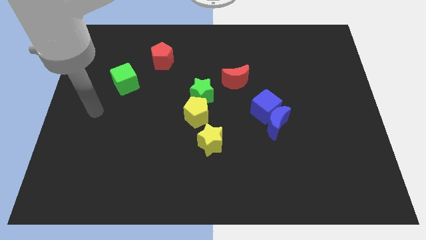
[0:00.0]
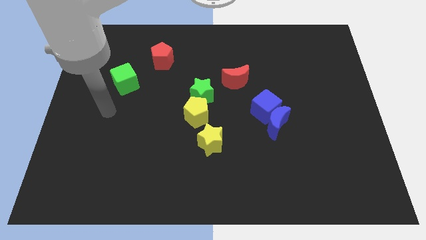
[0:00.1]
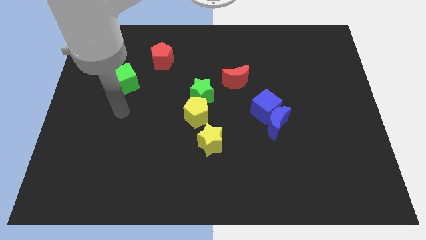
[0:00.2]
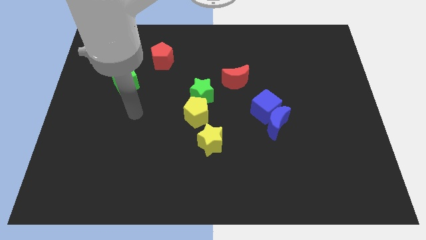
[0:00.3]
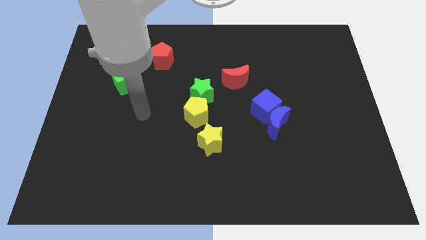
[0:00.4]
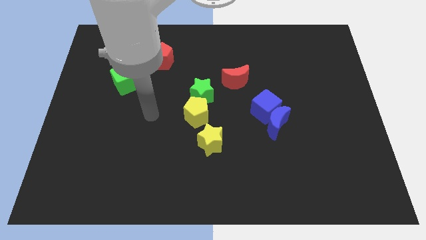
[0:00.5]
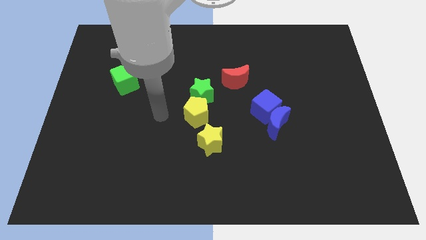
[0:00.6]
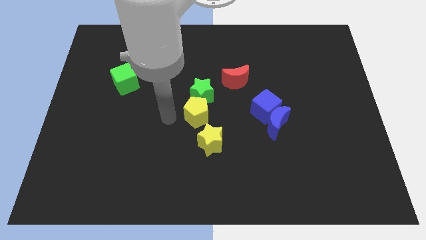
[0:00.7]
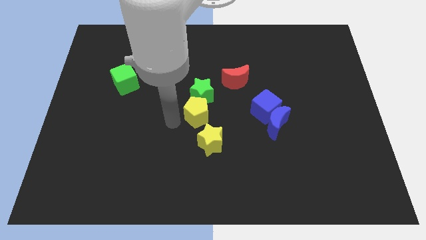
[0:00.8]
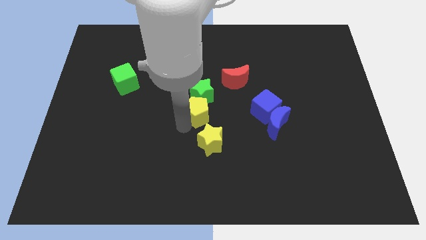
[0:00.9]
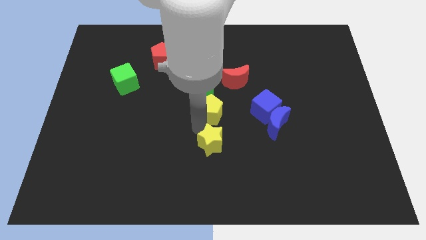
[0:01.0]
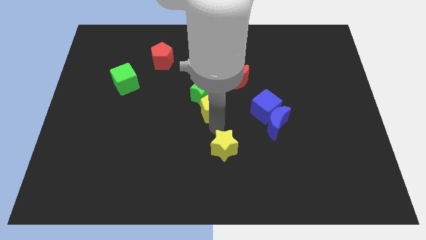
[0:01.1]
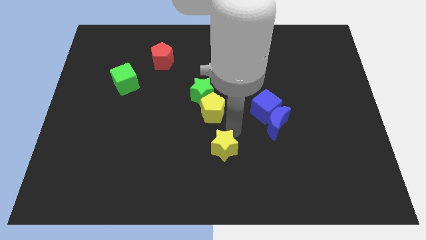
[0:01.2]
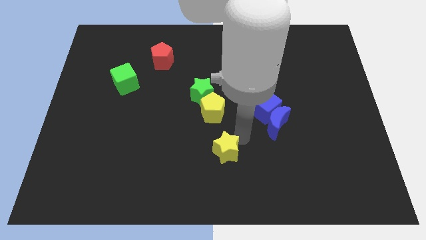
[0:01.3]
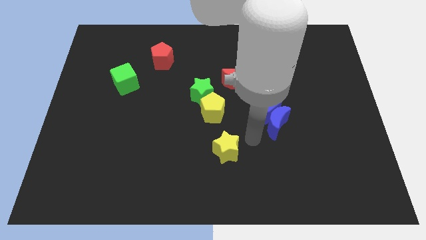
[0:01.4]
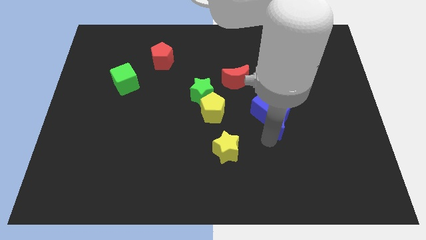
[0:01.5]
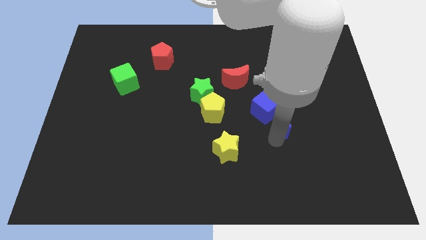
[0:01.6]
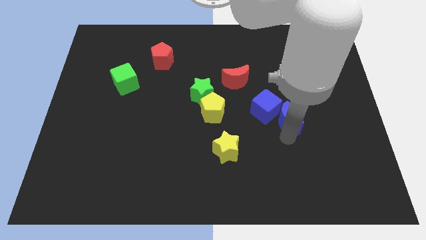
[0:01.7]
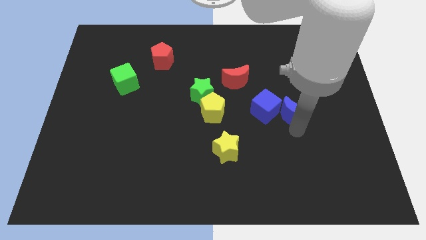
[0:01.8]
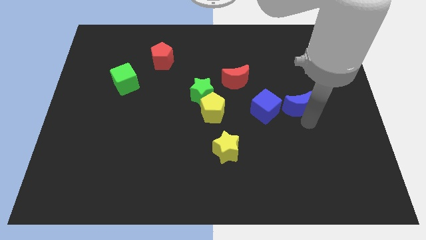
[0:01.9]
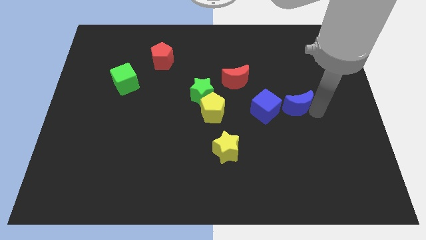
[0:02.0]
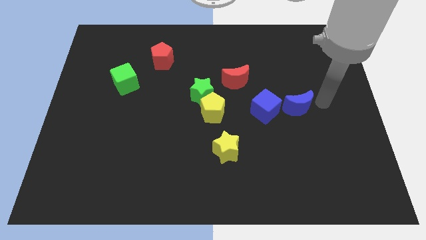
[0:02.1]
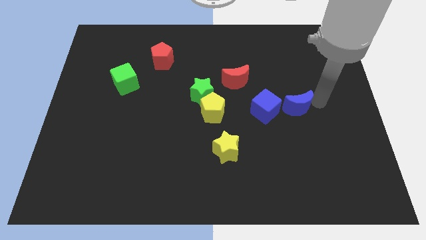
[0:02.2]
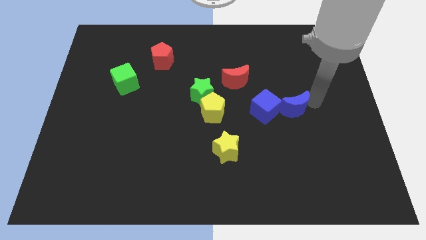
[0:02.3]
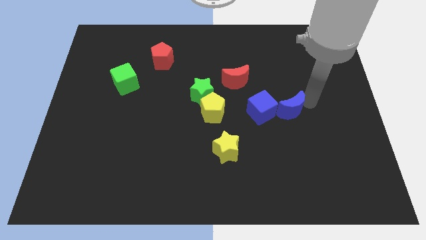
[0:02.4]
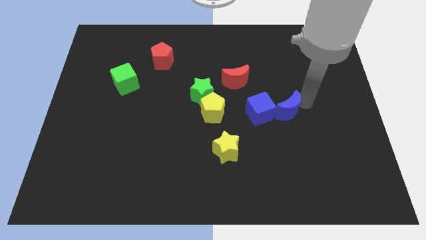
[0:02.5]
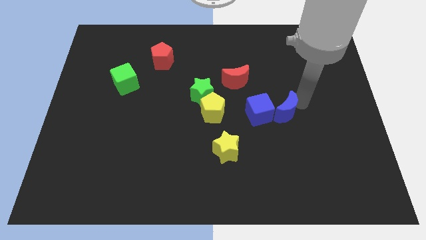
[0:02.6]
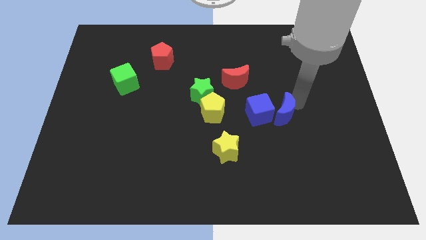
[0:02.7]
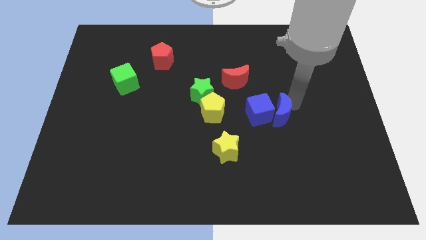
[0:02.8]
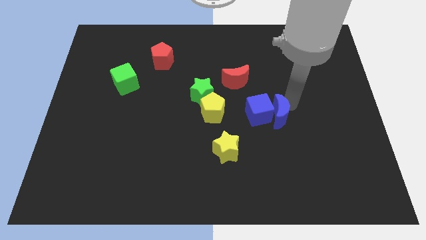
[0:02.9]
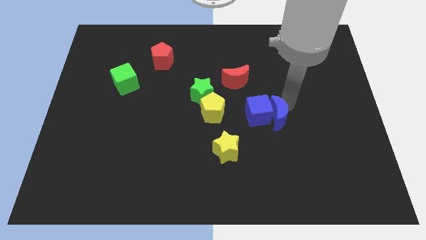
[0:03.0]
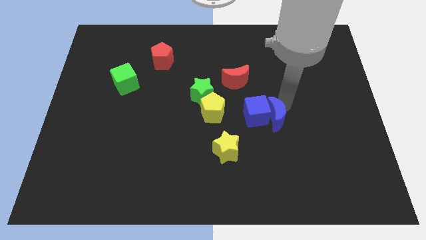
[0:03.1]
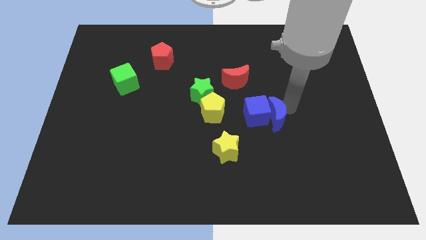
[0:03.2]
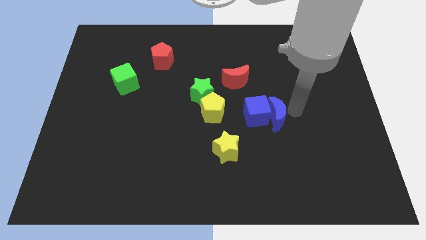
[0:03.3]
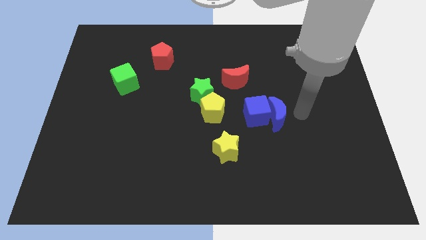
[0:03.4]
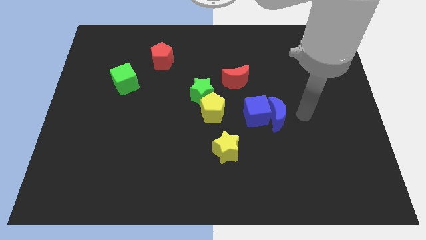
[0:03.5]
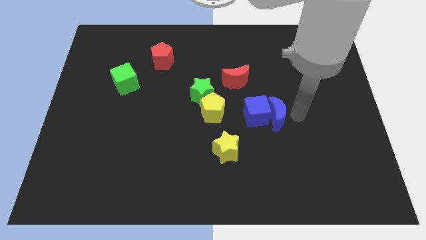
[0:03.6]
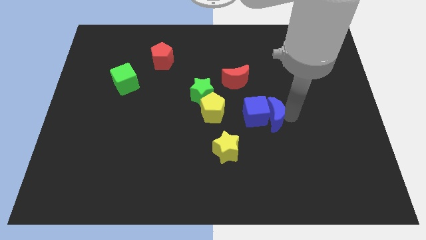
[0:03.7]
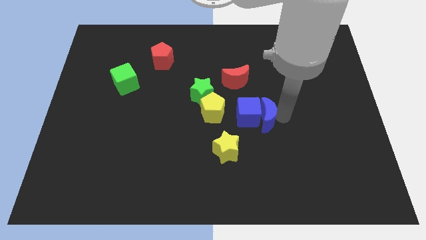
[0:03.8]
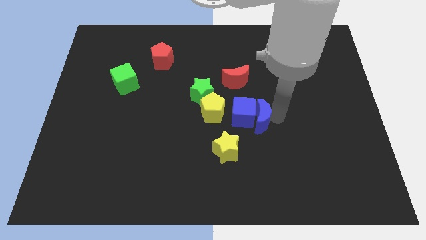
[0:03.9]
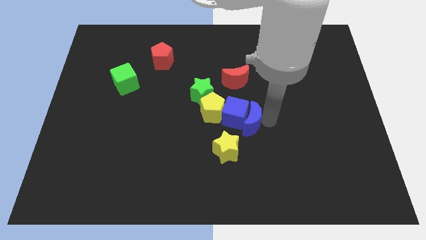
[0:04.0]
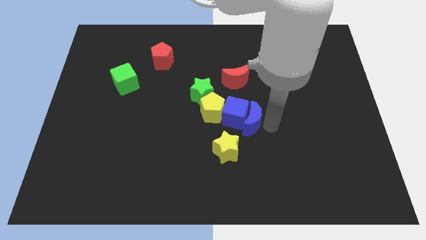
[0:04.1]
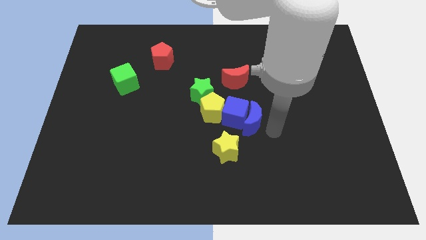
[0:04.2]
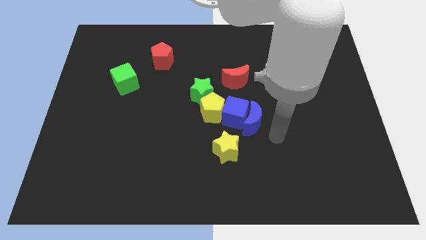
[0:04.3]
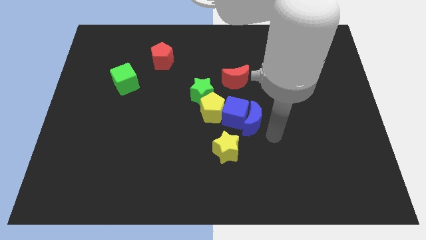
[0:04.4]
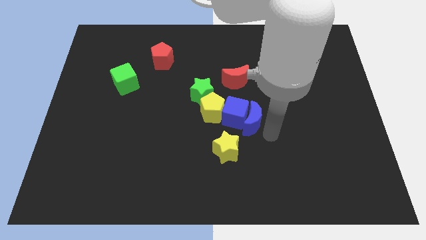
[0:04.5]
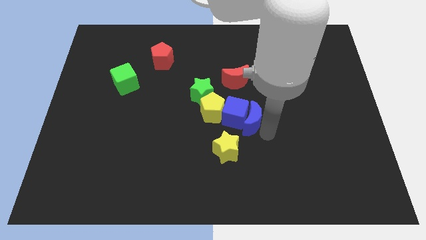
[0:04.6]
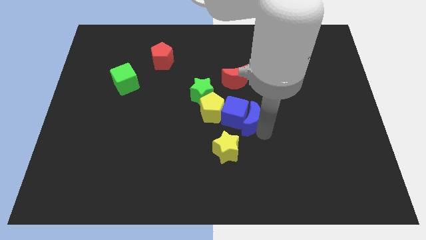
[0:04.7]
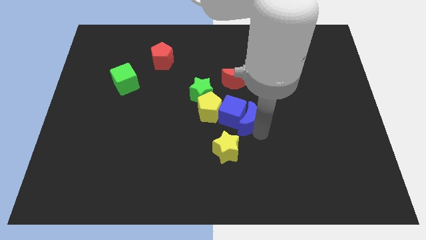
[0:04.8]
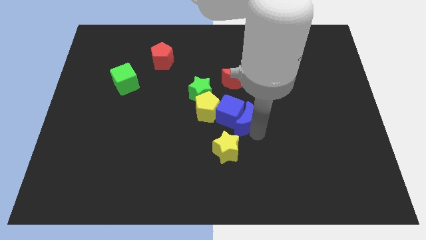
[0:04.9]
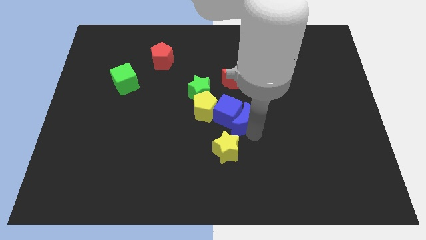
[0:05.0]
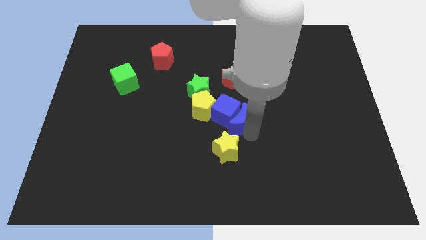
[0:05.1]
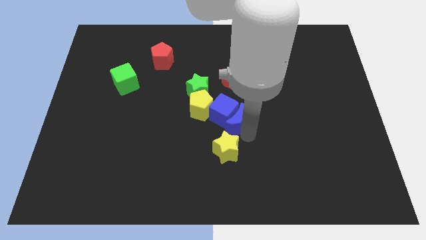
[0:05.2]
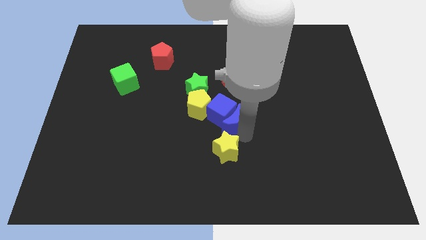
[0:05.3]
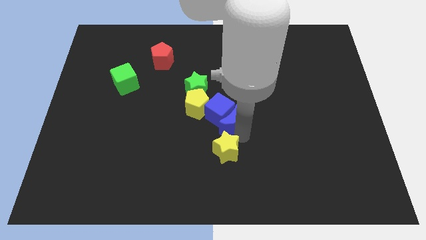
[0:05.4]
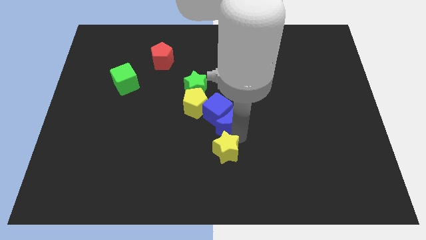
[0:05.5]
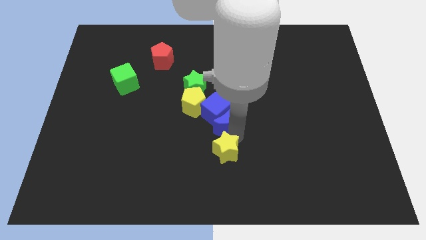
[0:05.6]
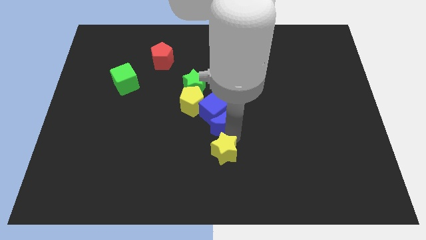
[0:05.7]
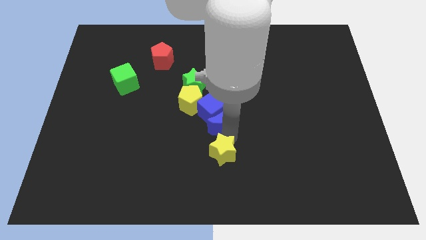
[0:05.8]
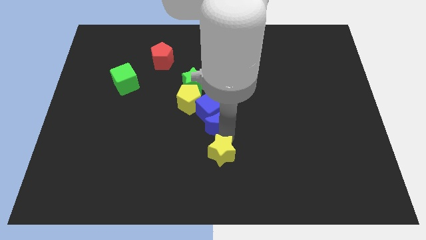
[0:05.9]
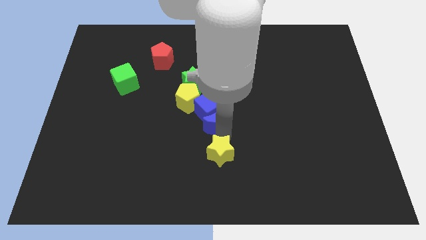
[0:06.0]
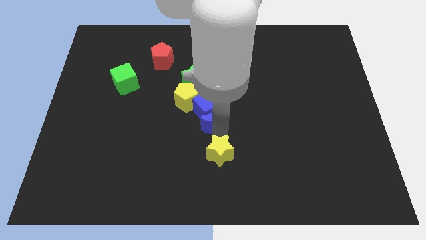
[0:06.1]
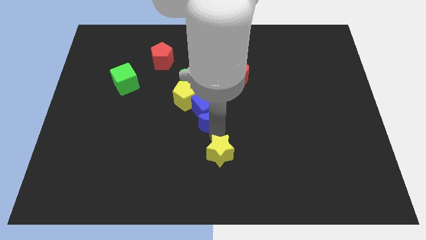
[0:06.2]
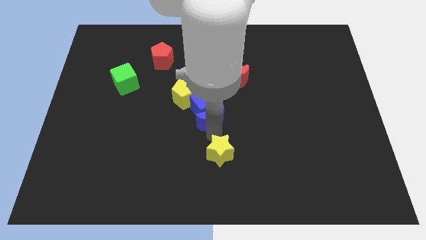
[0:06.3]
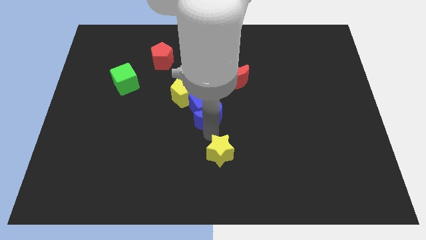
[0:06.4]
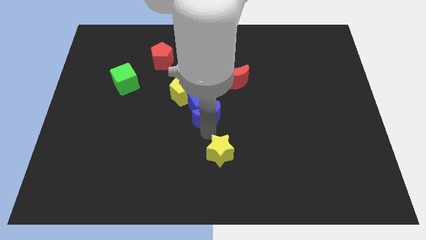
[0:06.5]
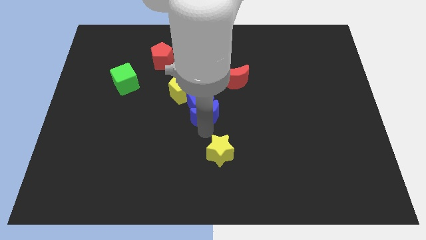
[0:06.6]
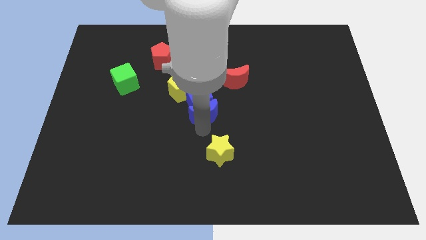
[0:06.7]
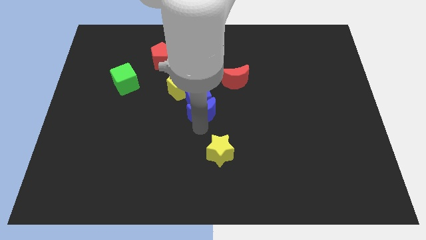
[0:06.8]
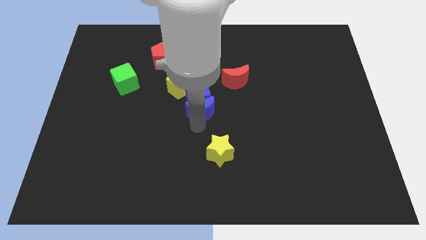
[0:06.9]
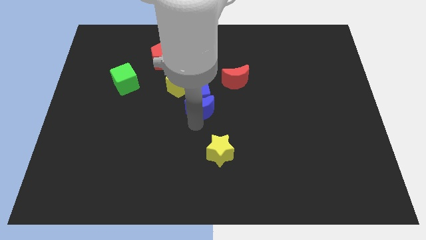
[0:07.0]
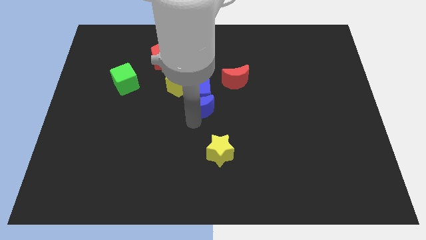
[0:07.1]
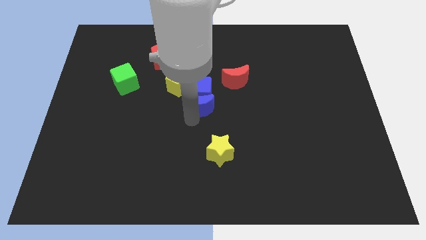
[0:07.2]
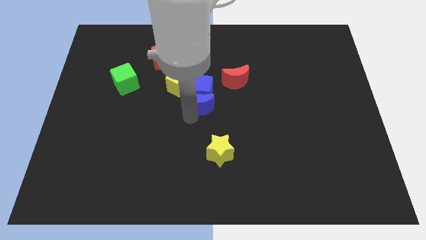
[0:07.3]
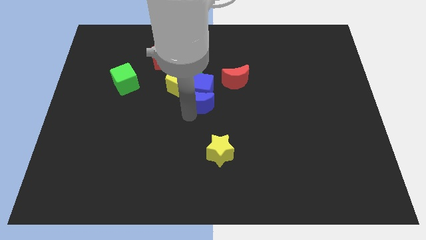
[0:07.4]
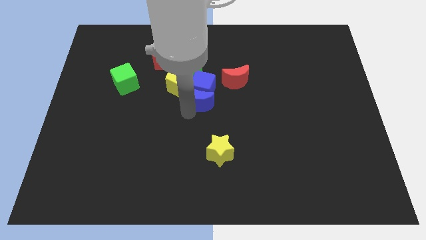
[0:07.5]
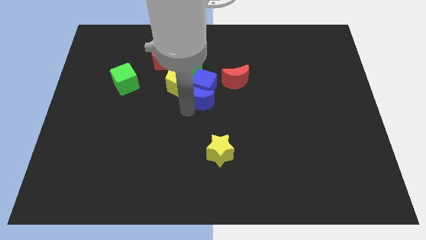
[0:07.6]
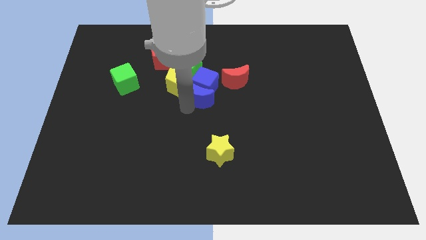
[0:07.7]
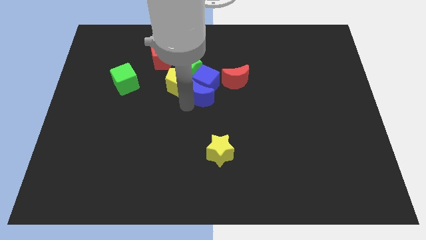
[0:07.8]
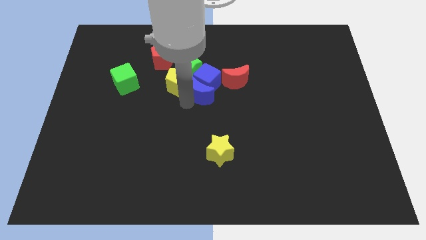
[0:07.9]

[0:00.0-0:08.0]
move the blue moon just left of the red moon
